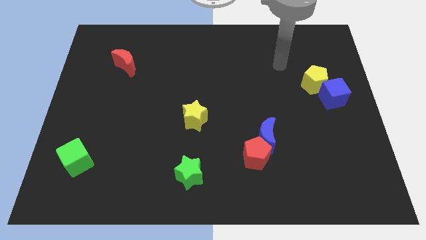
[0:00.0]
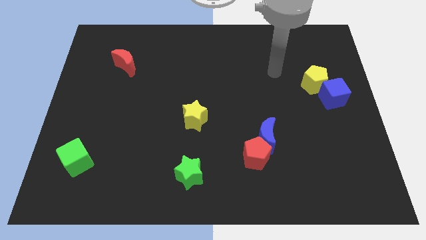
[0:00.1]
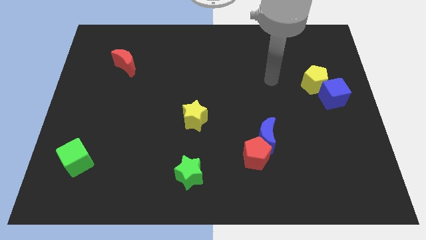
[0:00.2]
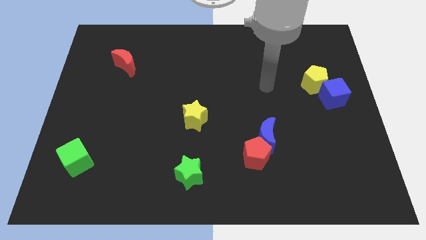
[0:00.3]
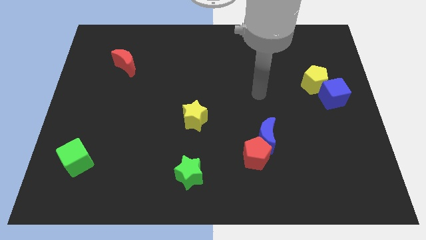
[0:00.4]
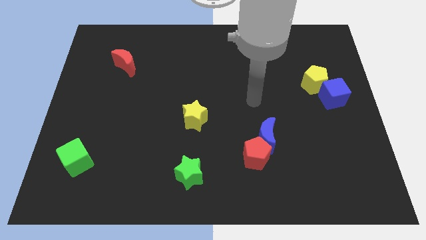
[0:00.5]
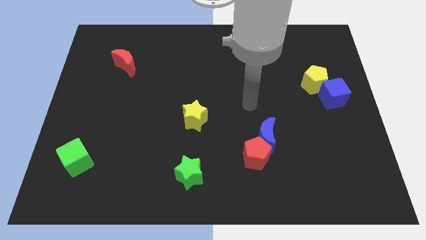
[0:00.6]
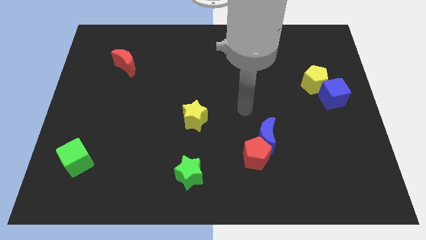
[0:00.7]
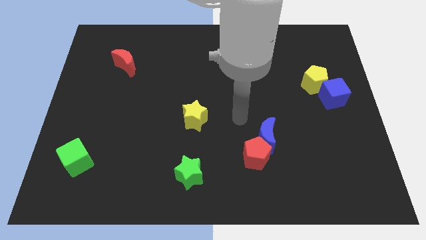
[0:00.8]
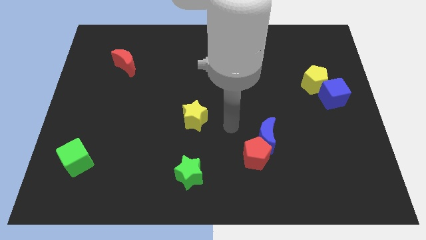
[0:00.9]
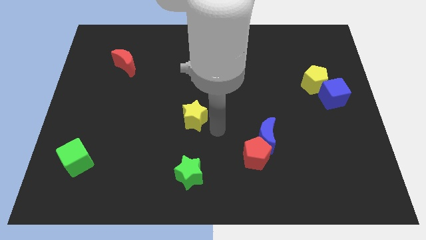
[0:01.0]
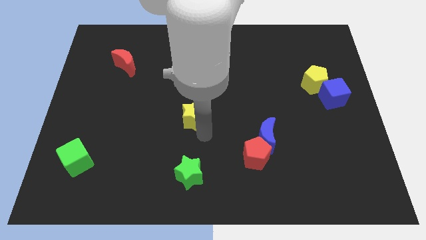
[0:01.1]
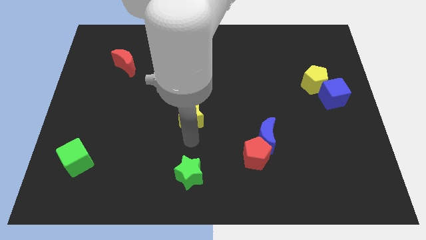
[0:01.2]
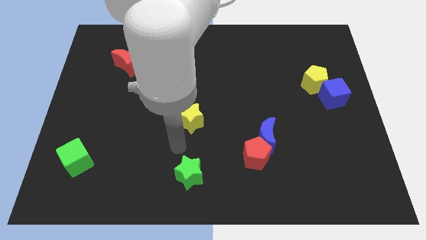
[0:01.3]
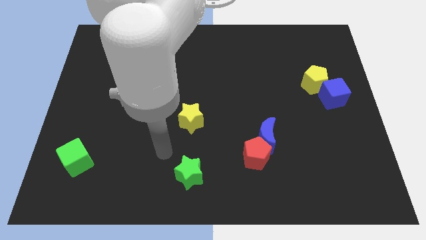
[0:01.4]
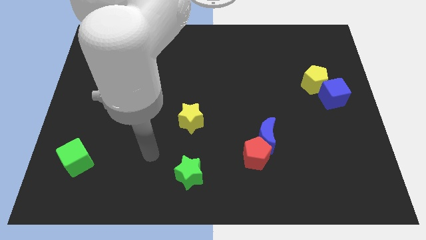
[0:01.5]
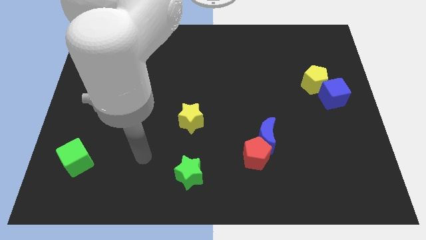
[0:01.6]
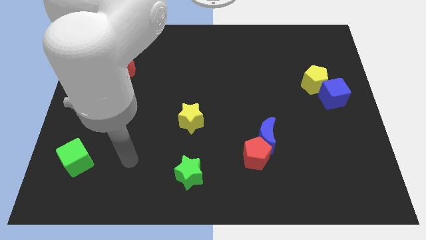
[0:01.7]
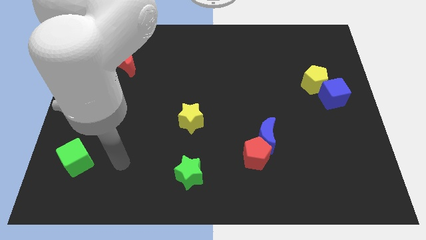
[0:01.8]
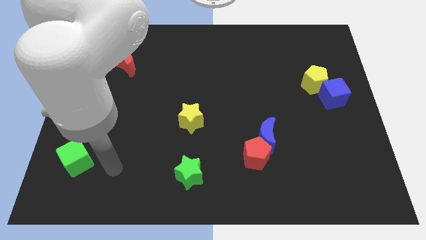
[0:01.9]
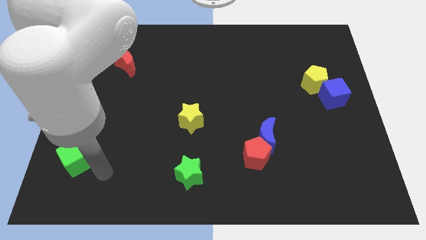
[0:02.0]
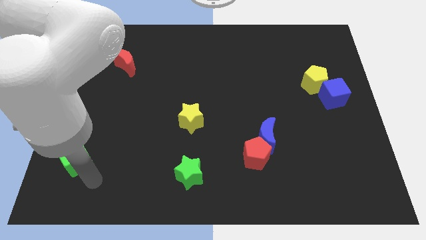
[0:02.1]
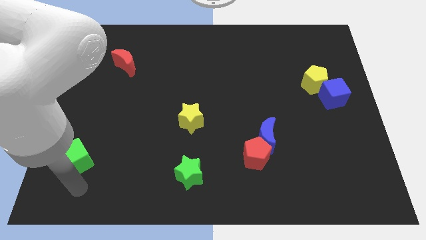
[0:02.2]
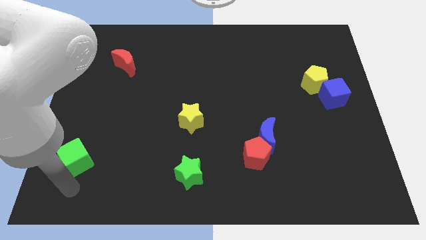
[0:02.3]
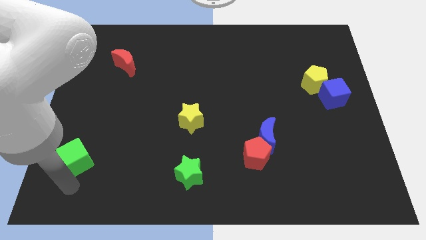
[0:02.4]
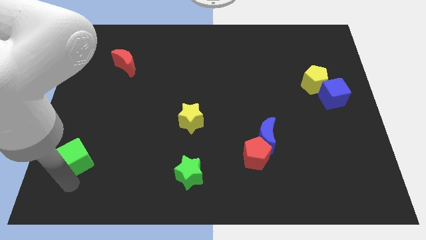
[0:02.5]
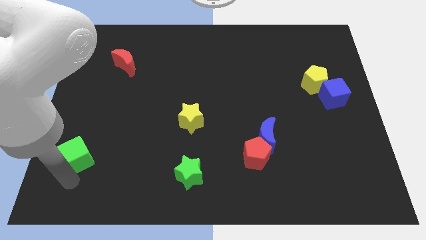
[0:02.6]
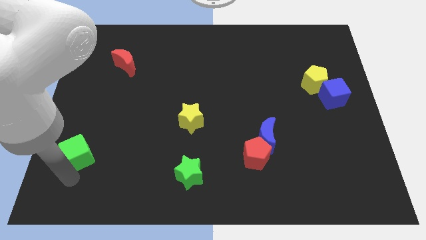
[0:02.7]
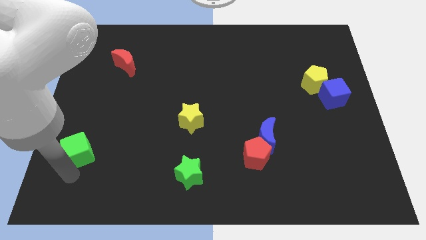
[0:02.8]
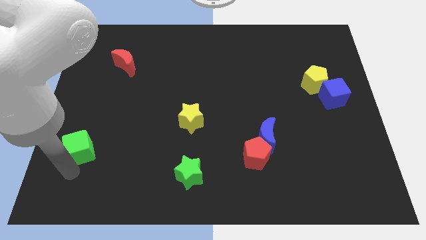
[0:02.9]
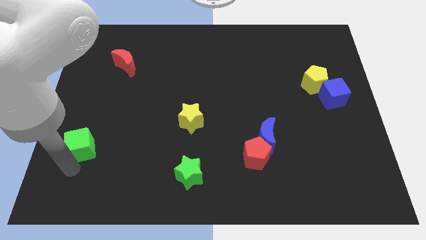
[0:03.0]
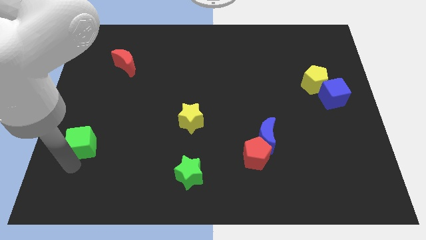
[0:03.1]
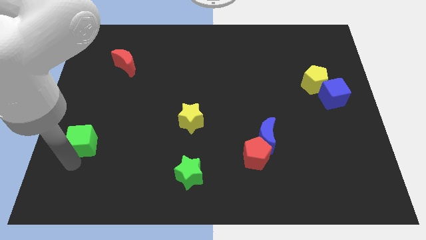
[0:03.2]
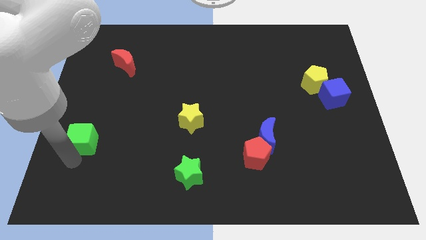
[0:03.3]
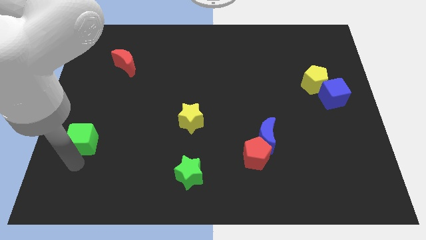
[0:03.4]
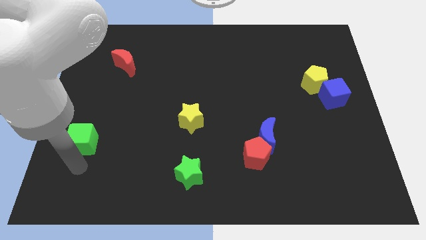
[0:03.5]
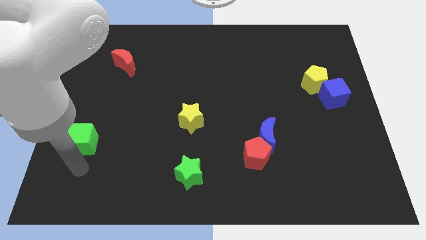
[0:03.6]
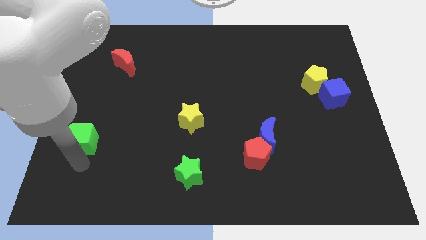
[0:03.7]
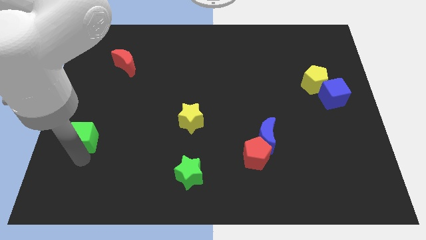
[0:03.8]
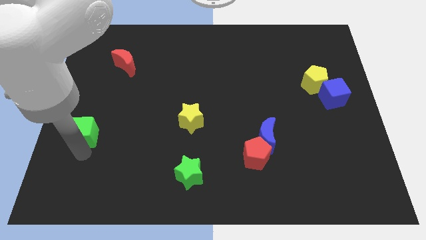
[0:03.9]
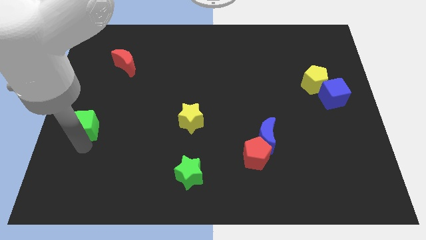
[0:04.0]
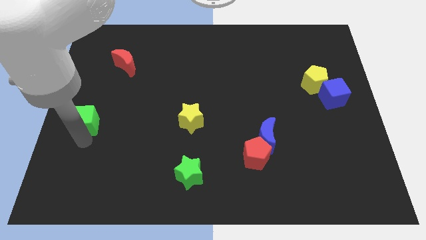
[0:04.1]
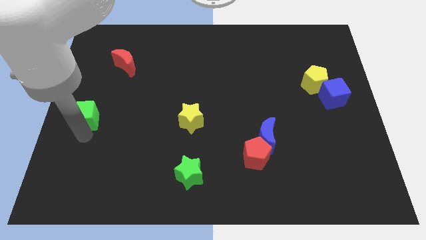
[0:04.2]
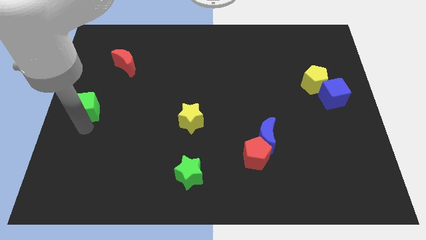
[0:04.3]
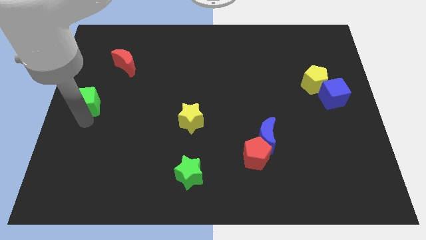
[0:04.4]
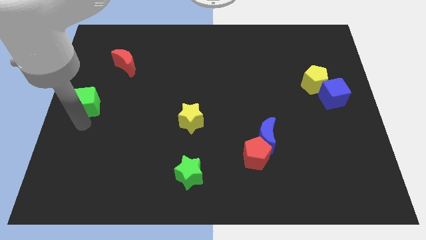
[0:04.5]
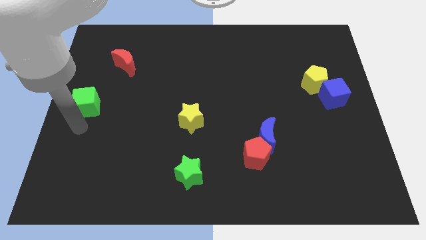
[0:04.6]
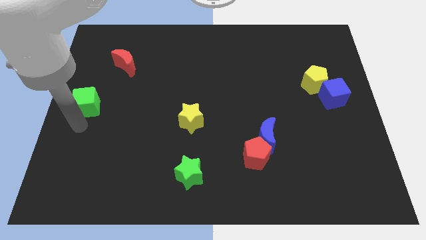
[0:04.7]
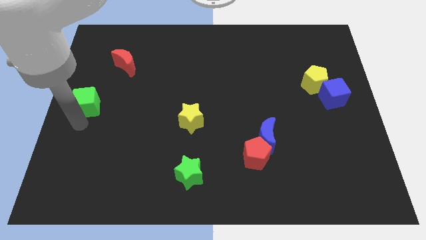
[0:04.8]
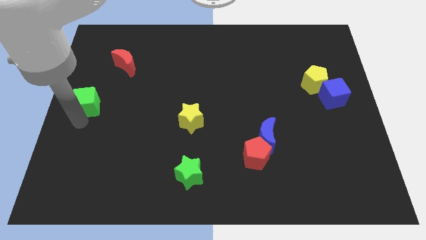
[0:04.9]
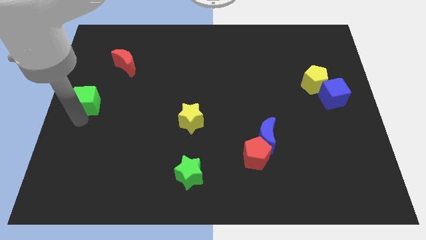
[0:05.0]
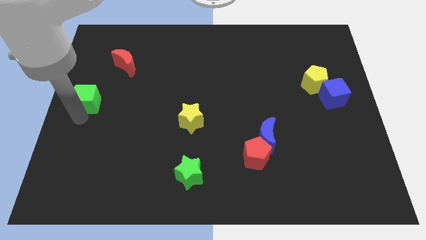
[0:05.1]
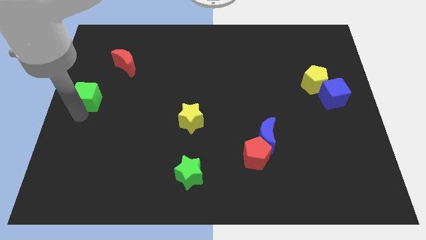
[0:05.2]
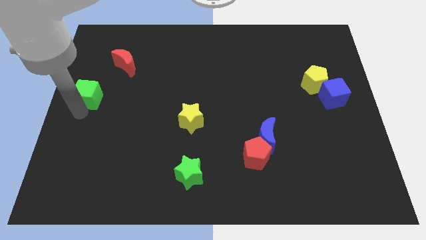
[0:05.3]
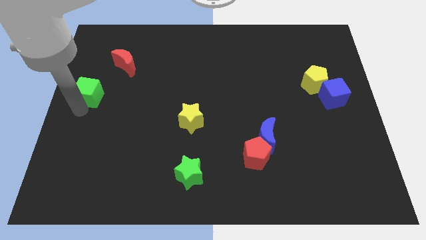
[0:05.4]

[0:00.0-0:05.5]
slide the green cube to the bottom left side of the red moon

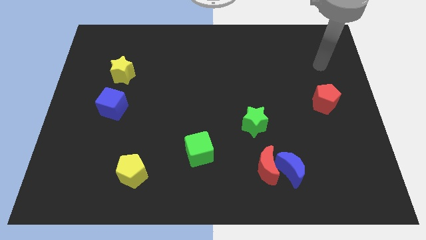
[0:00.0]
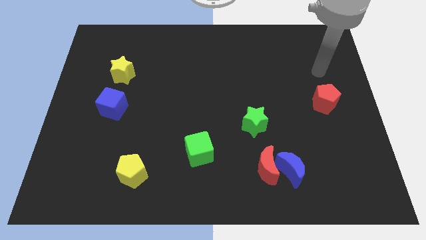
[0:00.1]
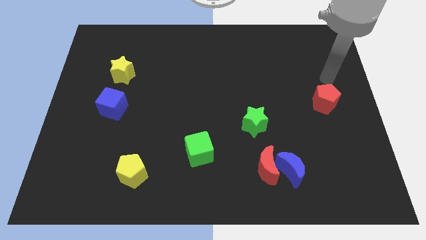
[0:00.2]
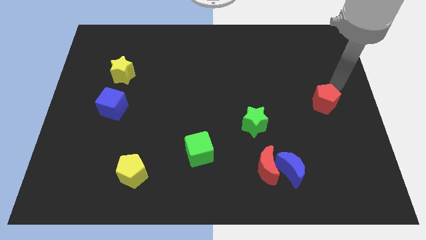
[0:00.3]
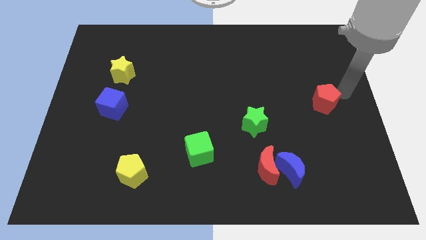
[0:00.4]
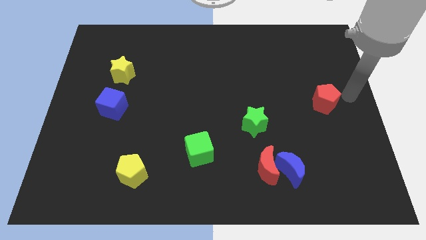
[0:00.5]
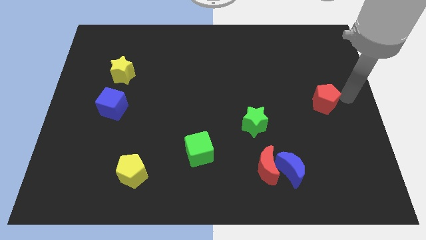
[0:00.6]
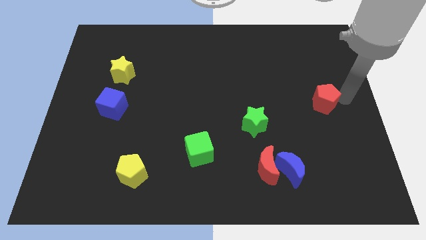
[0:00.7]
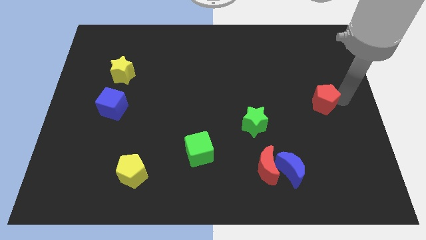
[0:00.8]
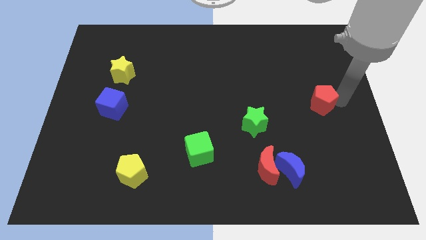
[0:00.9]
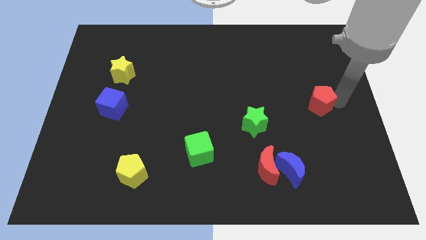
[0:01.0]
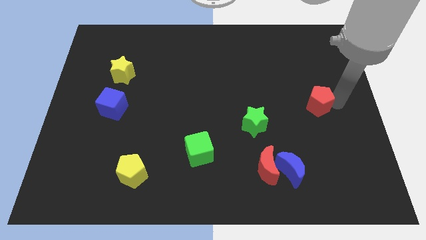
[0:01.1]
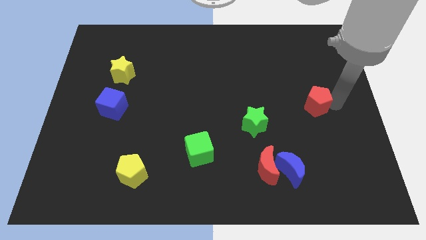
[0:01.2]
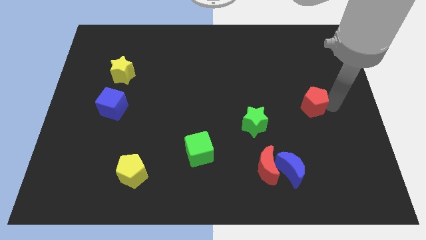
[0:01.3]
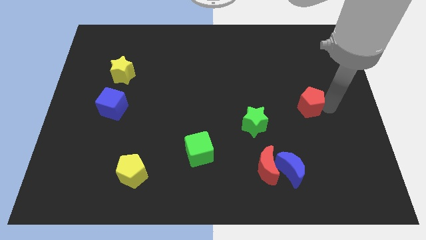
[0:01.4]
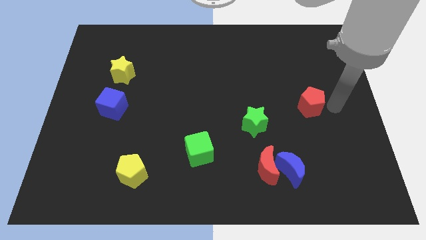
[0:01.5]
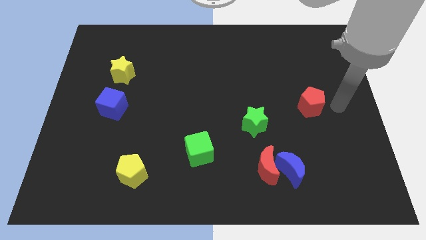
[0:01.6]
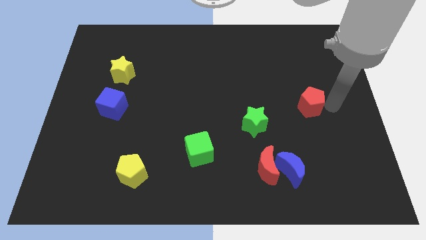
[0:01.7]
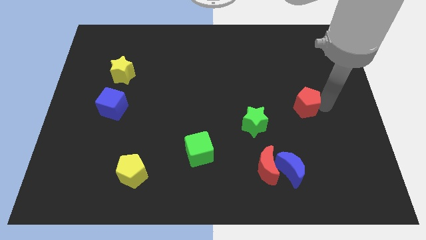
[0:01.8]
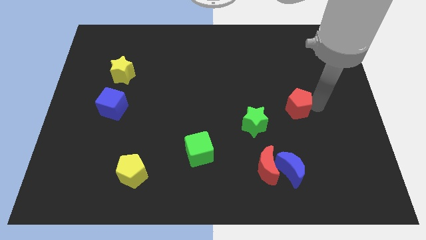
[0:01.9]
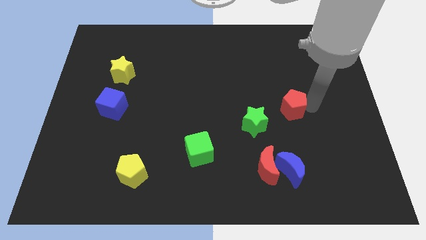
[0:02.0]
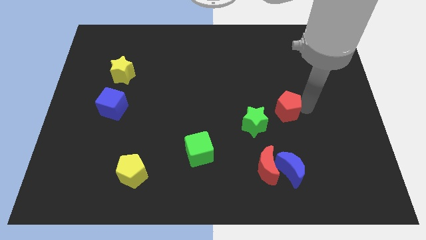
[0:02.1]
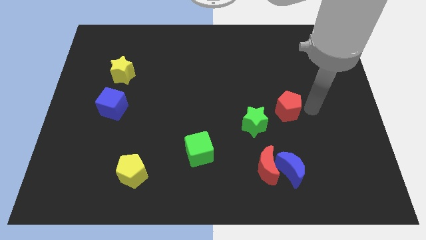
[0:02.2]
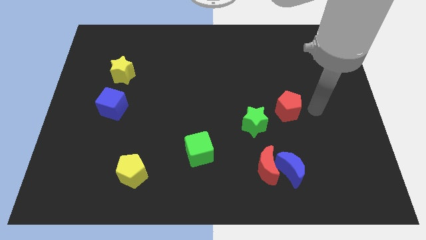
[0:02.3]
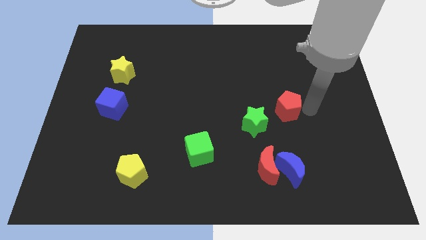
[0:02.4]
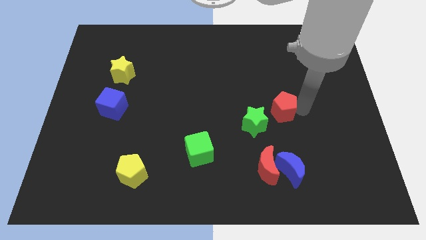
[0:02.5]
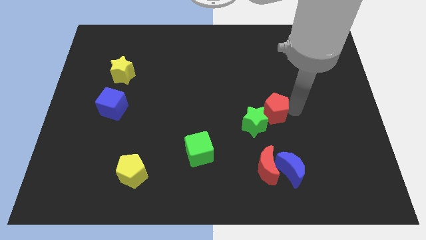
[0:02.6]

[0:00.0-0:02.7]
push the red pentagon to the top of the red moon
